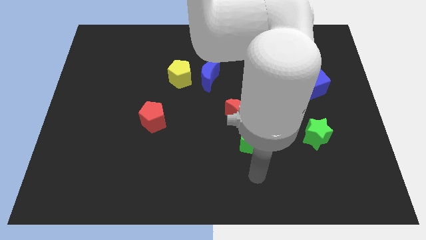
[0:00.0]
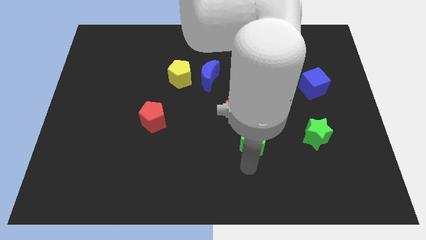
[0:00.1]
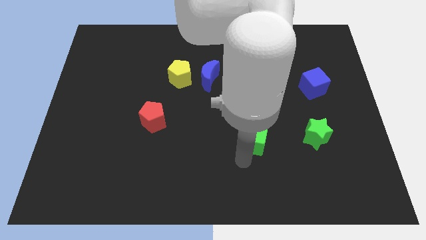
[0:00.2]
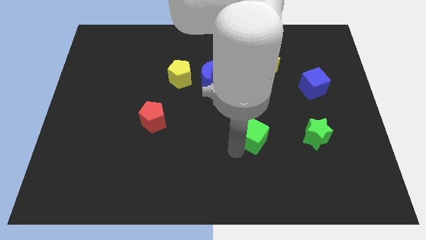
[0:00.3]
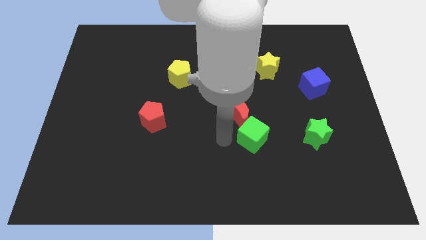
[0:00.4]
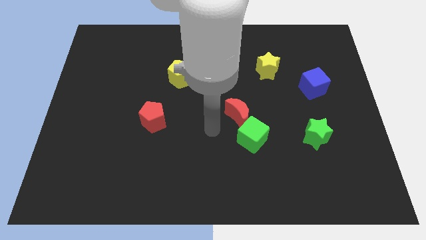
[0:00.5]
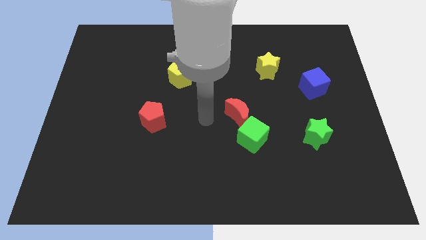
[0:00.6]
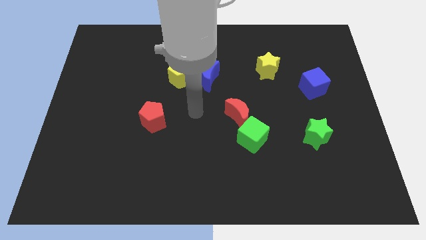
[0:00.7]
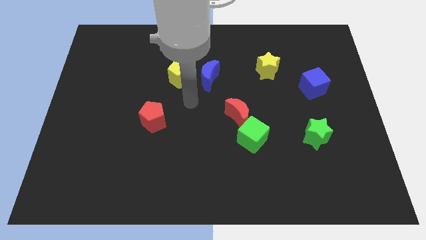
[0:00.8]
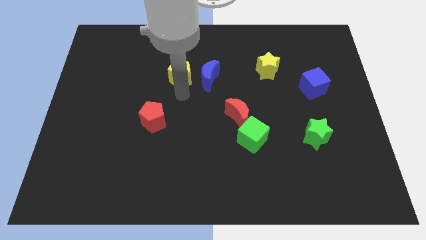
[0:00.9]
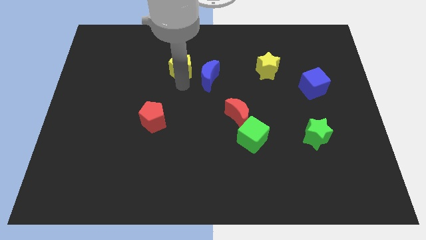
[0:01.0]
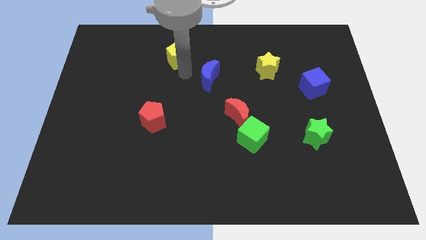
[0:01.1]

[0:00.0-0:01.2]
pull the blue moon apart from the yellow pentagon

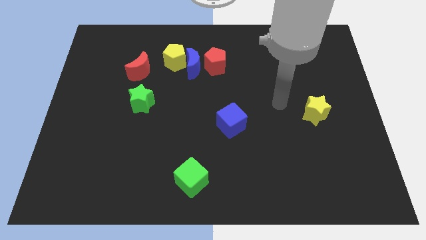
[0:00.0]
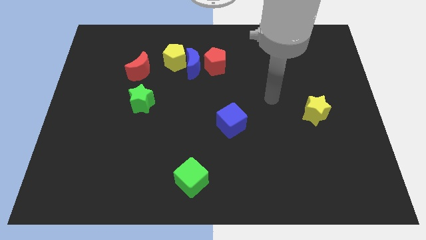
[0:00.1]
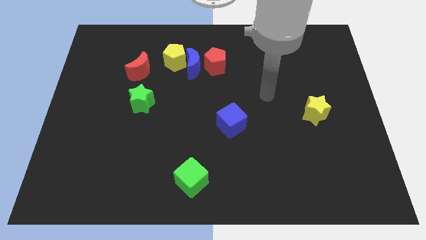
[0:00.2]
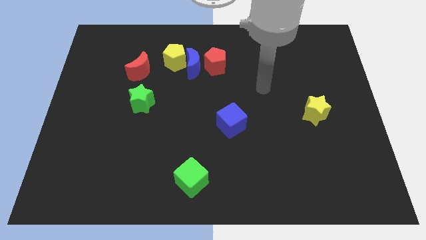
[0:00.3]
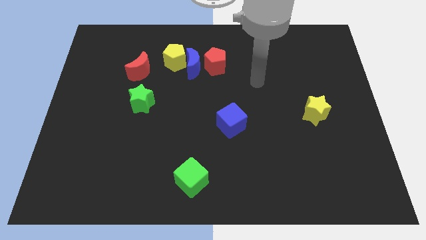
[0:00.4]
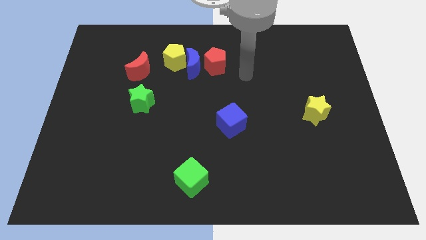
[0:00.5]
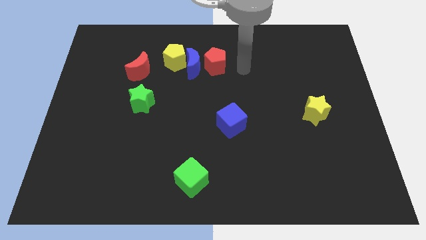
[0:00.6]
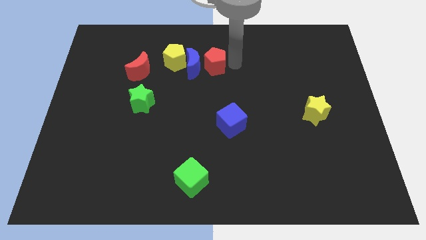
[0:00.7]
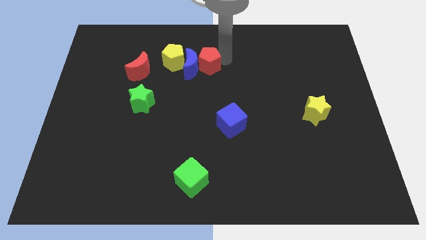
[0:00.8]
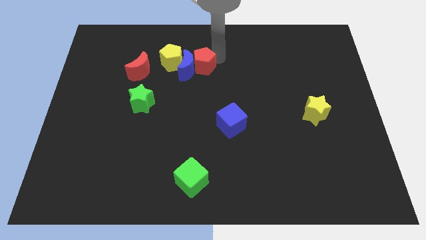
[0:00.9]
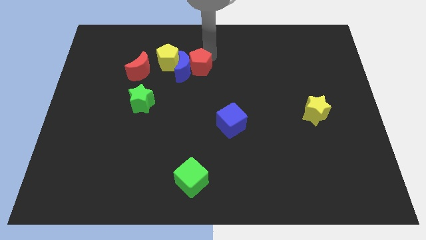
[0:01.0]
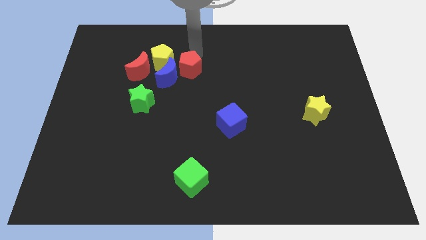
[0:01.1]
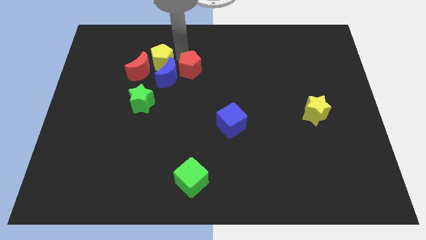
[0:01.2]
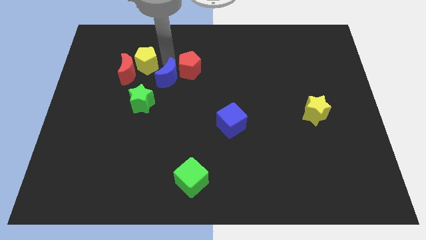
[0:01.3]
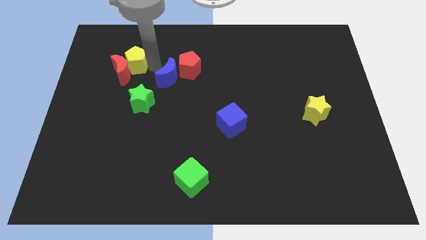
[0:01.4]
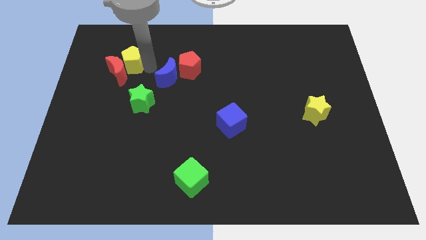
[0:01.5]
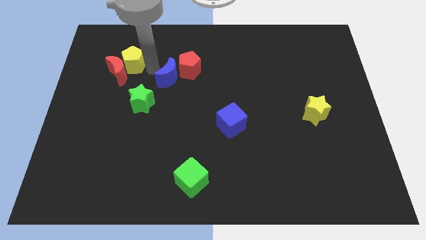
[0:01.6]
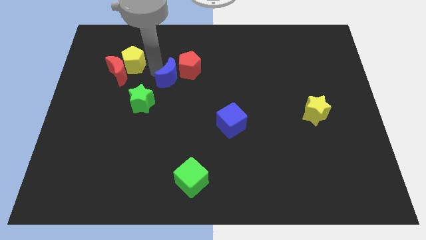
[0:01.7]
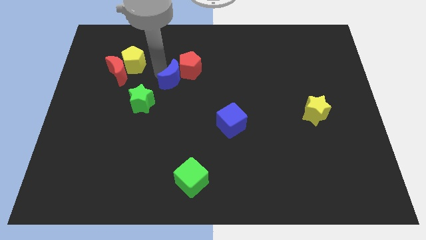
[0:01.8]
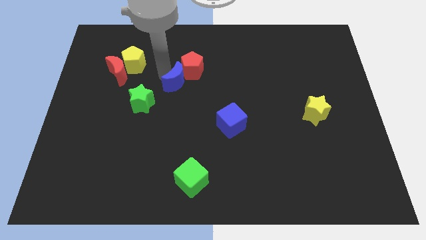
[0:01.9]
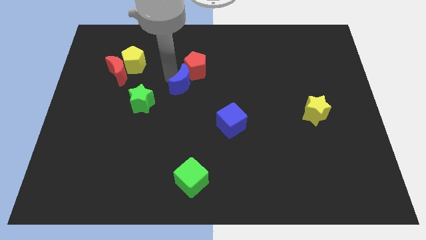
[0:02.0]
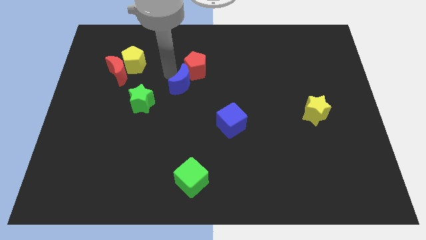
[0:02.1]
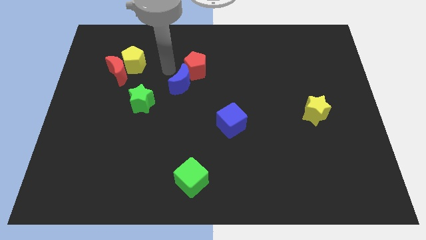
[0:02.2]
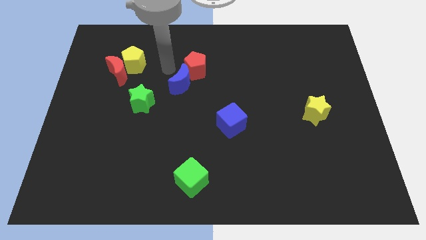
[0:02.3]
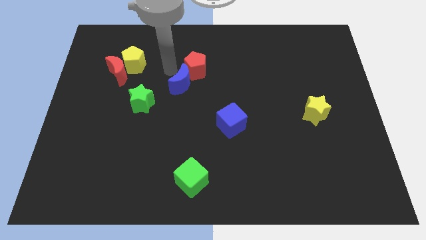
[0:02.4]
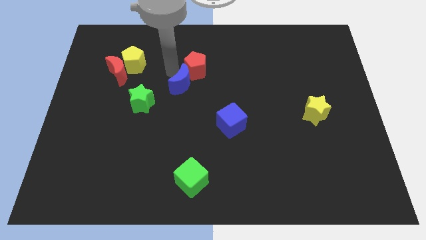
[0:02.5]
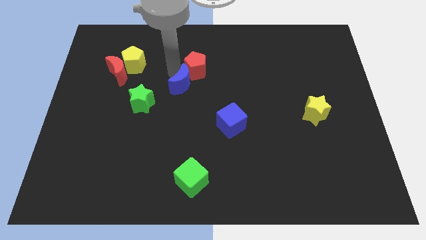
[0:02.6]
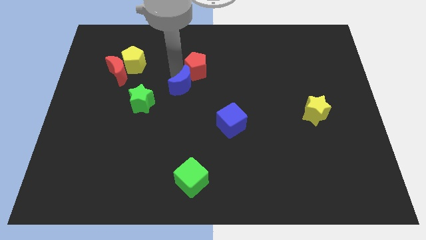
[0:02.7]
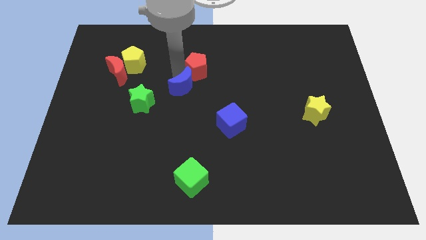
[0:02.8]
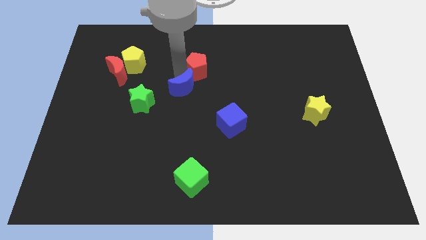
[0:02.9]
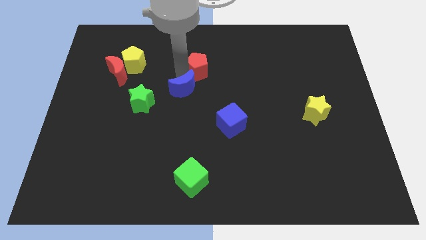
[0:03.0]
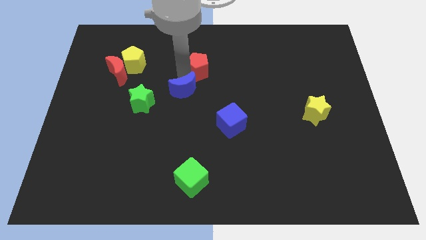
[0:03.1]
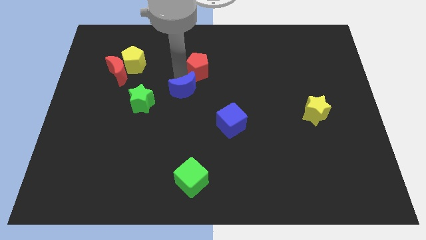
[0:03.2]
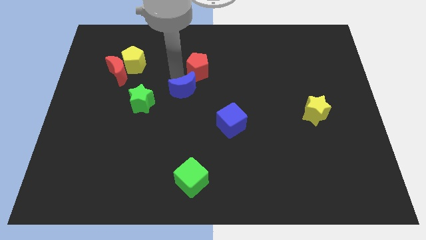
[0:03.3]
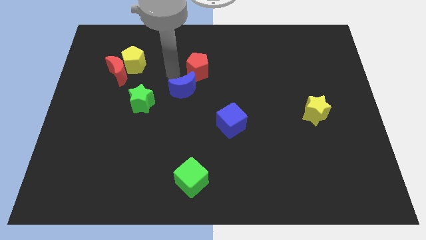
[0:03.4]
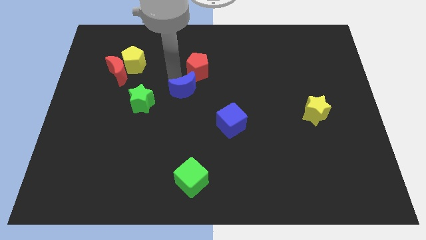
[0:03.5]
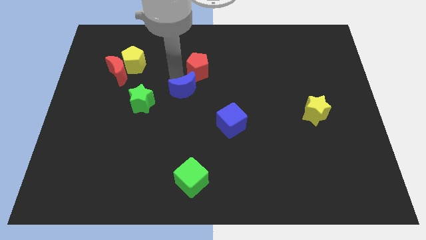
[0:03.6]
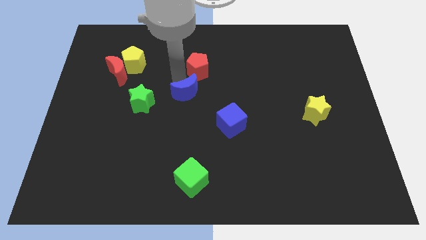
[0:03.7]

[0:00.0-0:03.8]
separate the blue moon from the yellow pentagon and red pentagon

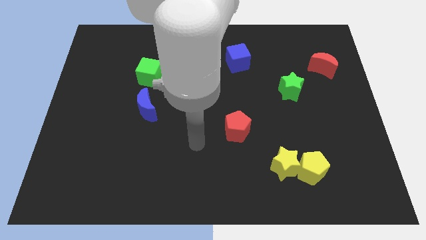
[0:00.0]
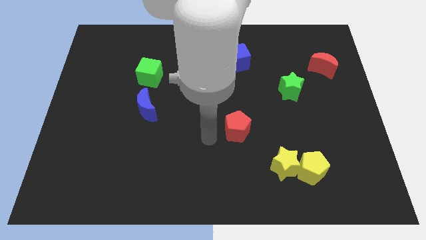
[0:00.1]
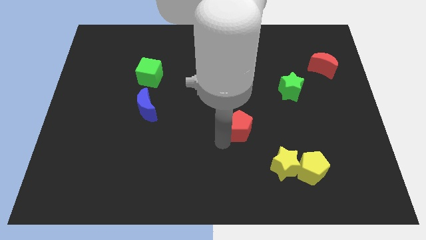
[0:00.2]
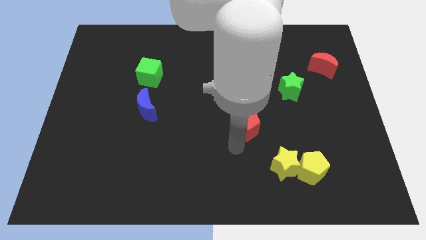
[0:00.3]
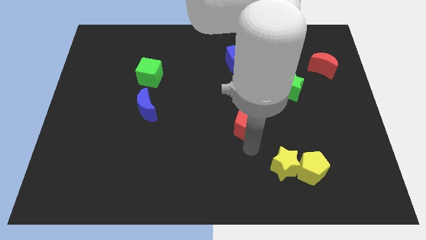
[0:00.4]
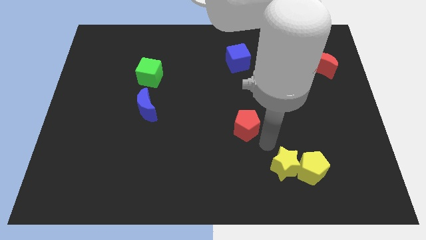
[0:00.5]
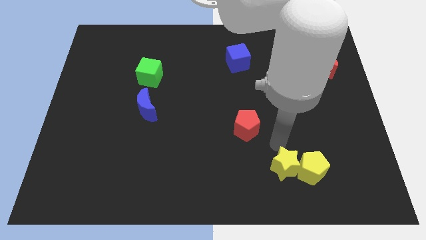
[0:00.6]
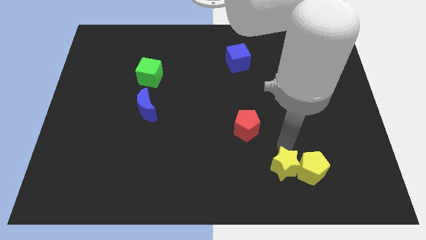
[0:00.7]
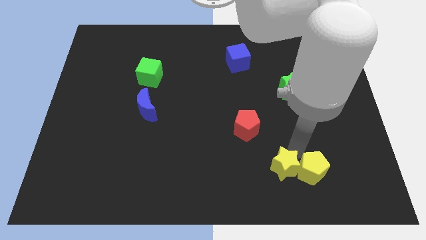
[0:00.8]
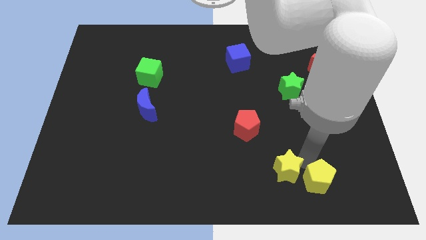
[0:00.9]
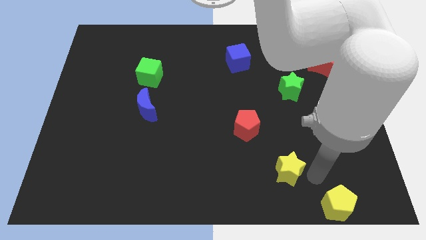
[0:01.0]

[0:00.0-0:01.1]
move the yellow star away from the yellow pentagon

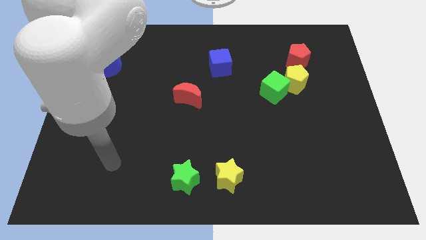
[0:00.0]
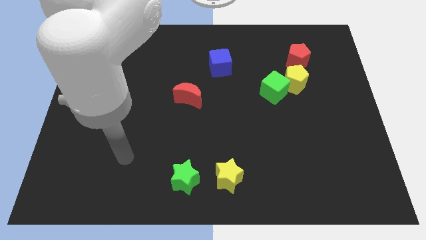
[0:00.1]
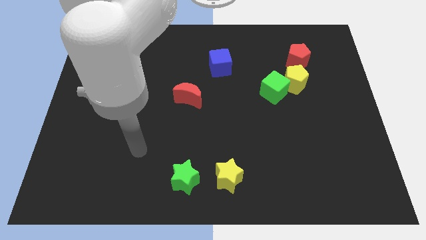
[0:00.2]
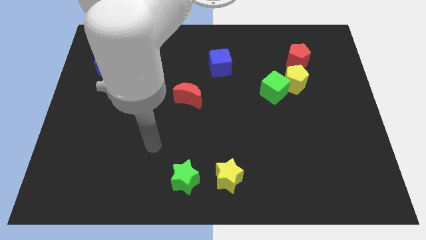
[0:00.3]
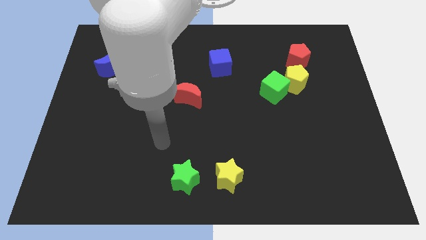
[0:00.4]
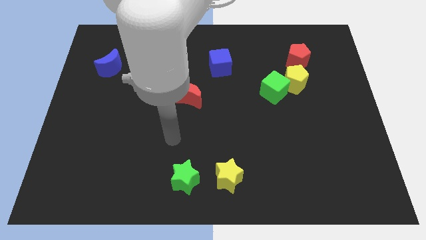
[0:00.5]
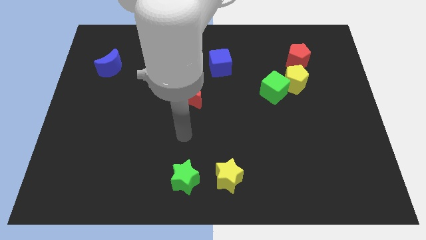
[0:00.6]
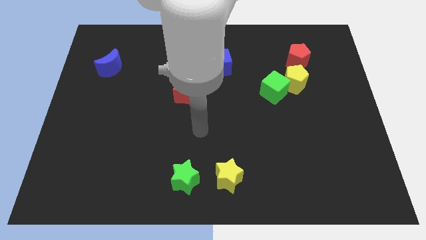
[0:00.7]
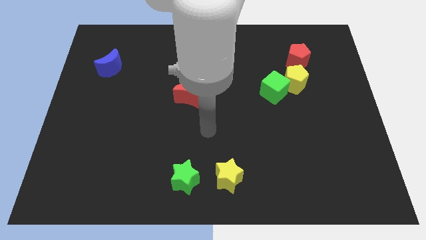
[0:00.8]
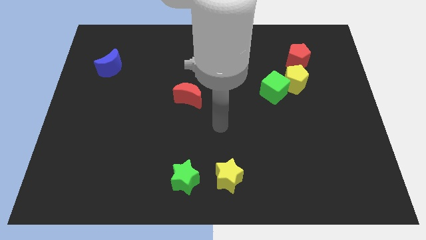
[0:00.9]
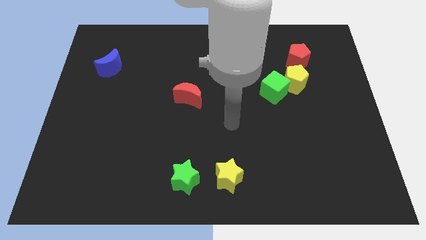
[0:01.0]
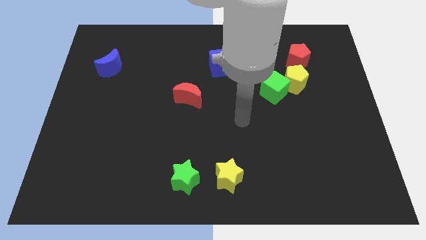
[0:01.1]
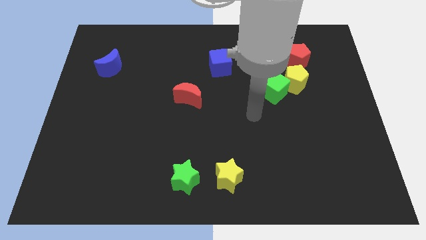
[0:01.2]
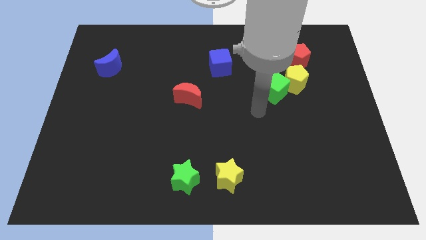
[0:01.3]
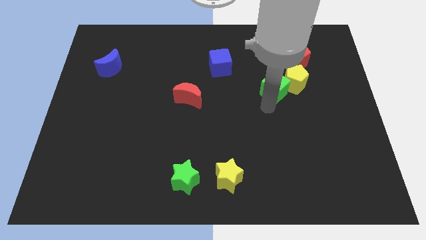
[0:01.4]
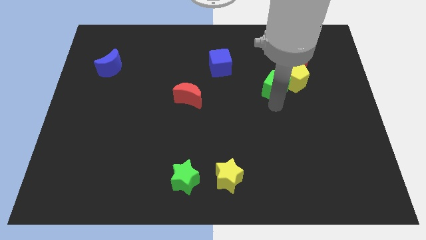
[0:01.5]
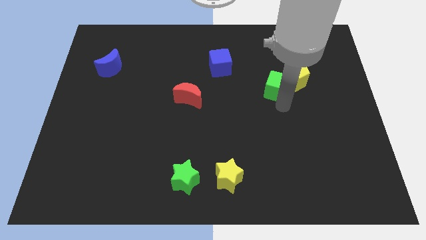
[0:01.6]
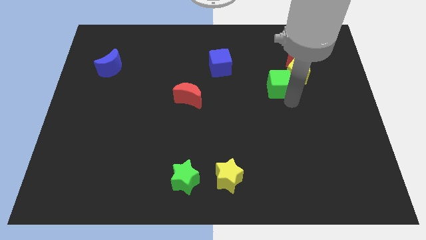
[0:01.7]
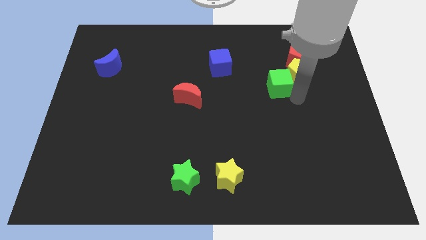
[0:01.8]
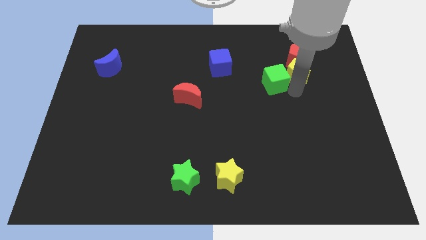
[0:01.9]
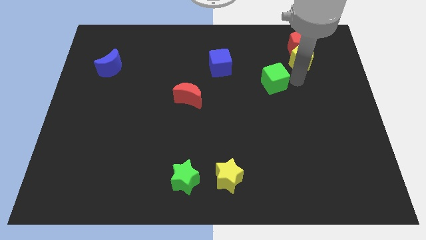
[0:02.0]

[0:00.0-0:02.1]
pull the green cube apart from the yellow pentagon

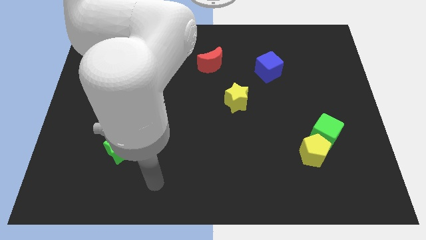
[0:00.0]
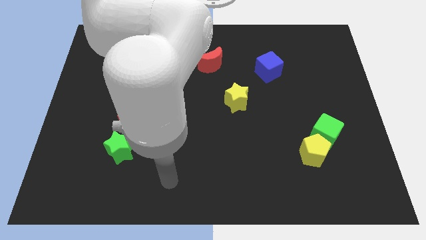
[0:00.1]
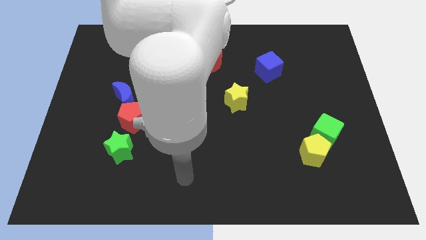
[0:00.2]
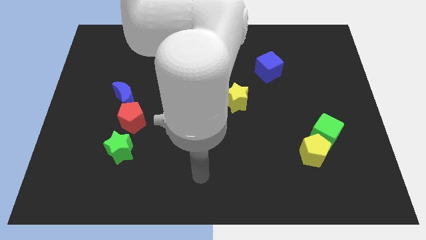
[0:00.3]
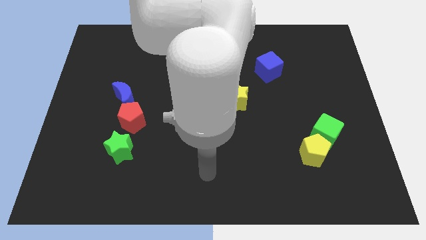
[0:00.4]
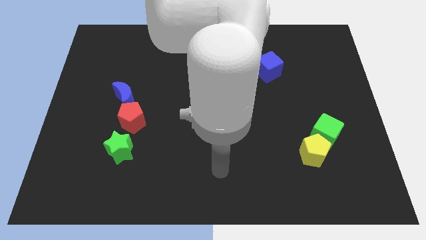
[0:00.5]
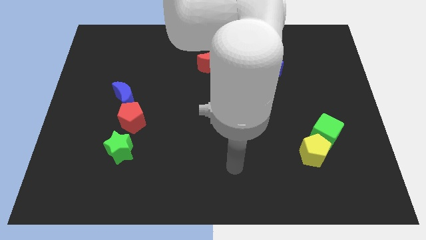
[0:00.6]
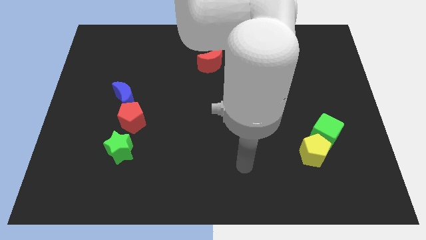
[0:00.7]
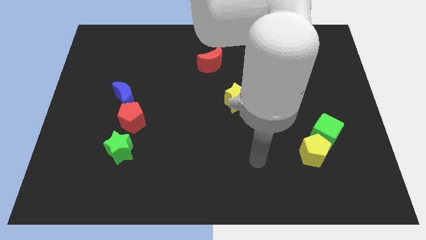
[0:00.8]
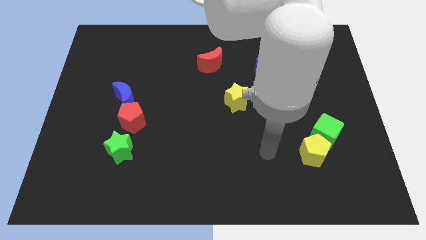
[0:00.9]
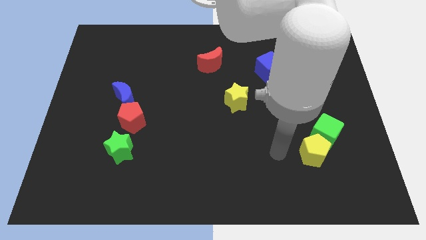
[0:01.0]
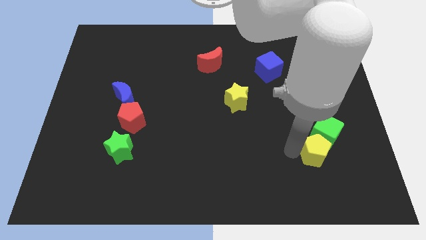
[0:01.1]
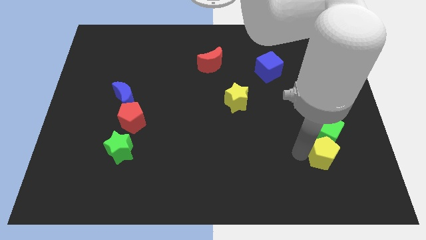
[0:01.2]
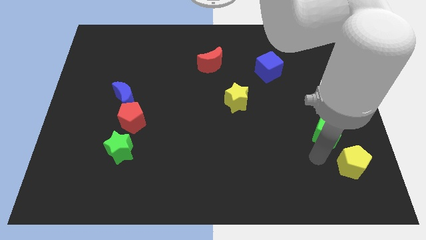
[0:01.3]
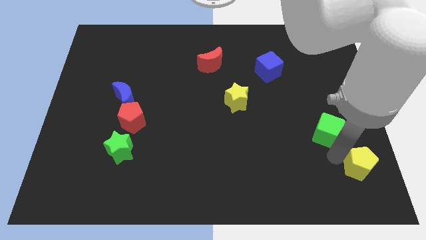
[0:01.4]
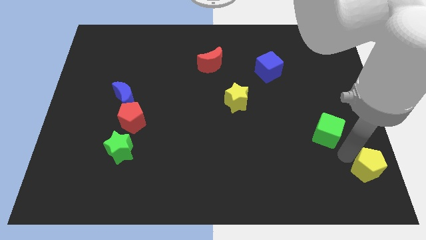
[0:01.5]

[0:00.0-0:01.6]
move the green cube away from the yellow pentagon
